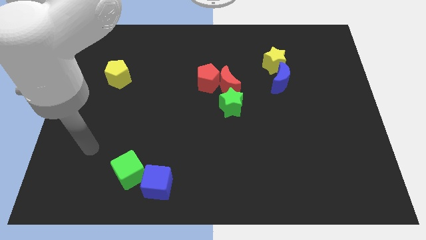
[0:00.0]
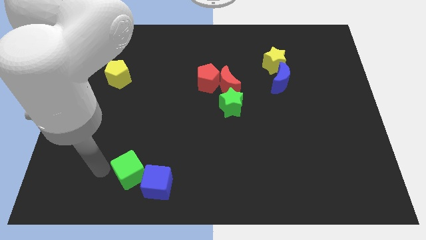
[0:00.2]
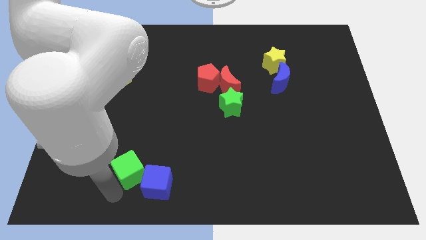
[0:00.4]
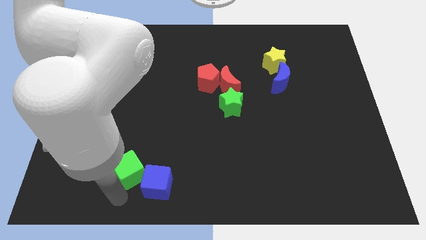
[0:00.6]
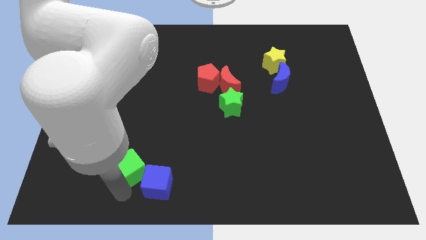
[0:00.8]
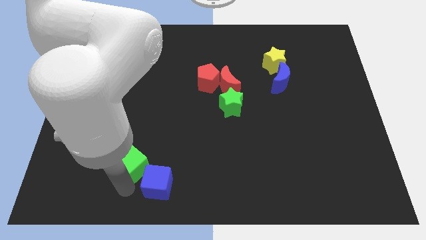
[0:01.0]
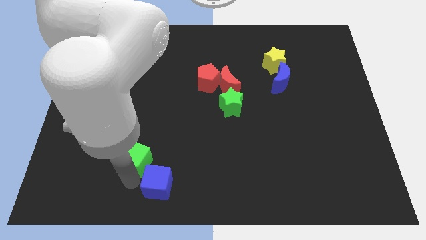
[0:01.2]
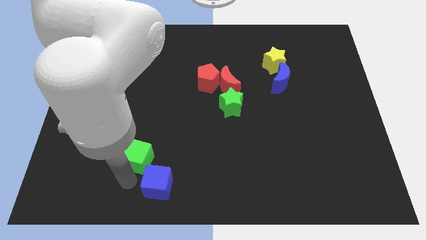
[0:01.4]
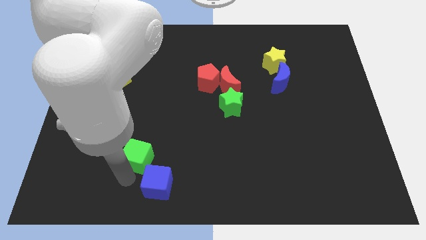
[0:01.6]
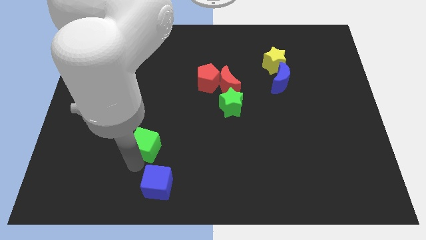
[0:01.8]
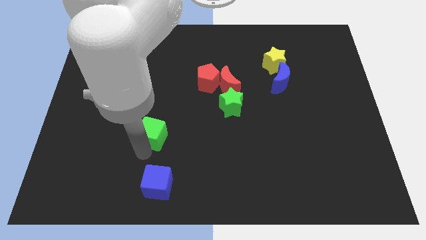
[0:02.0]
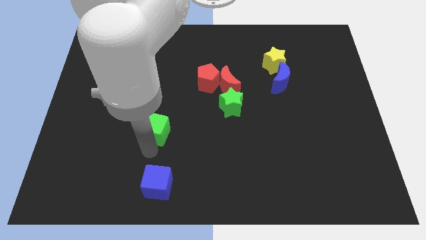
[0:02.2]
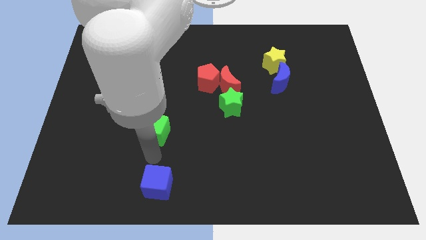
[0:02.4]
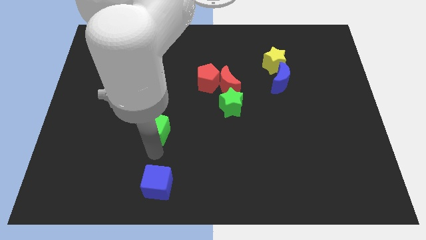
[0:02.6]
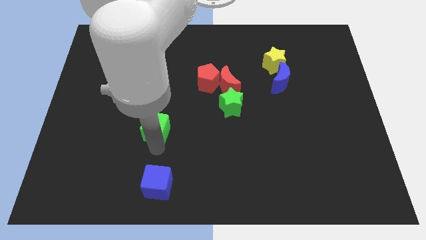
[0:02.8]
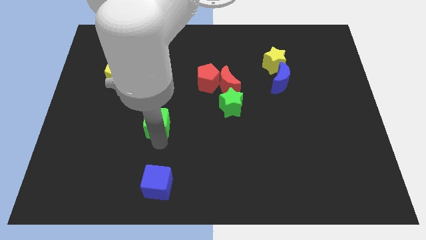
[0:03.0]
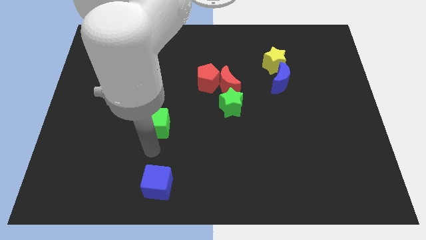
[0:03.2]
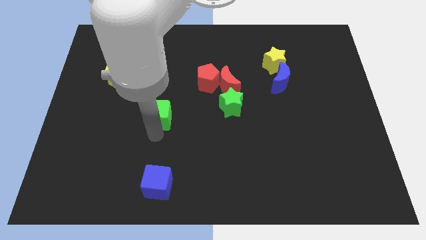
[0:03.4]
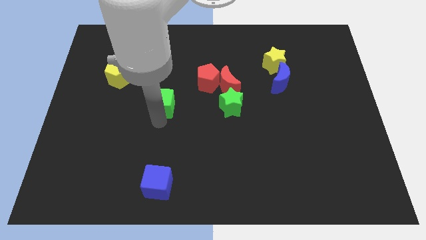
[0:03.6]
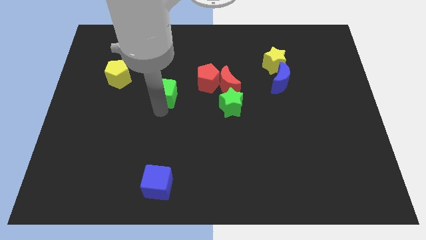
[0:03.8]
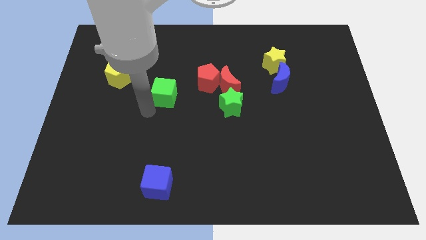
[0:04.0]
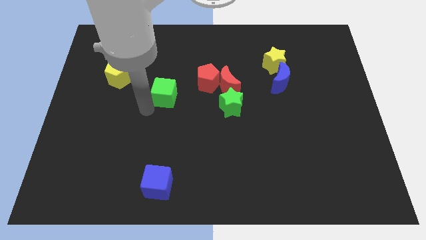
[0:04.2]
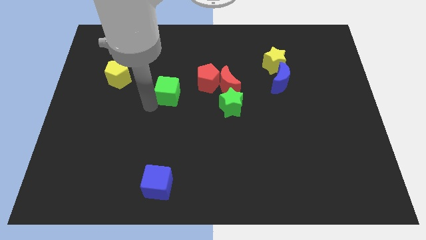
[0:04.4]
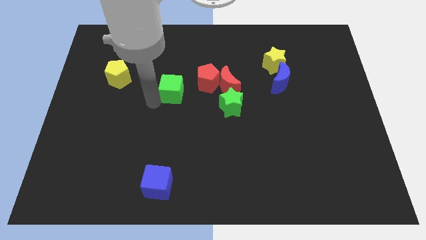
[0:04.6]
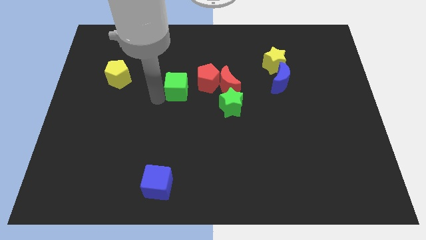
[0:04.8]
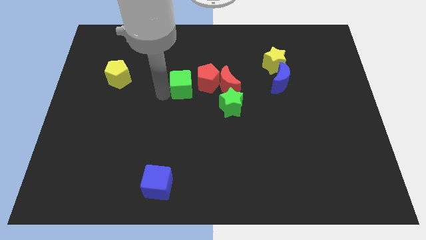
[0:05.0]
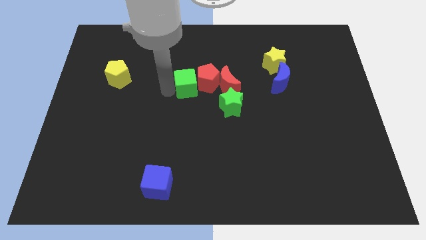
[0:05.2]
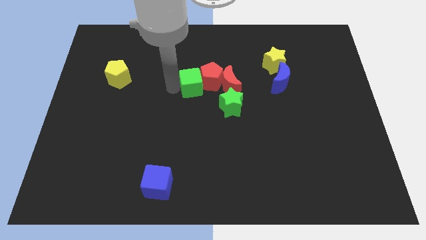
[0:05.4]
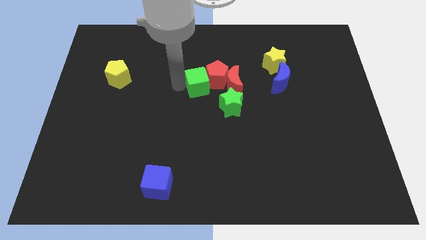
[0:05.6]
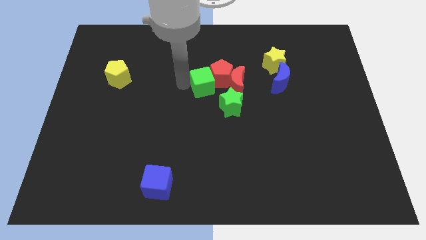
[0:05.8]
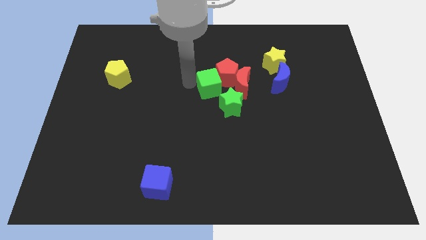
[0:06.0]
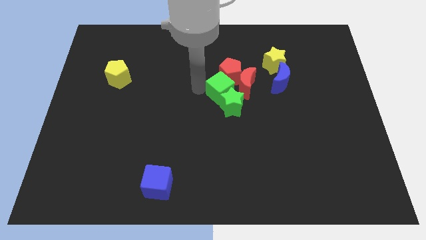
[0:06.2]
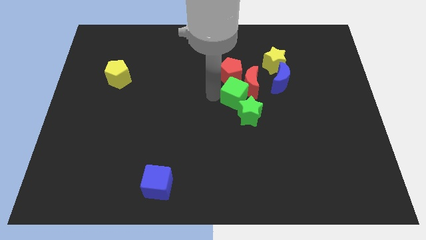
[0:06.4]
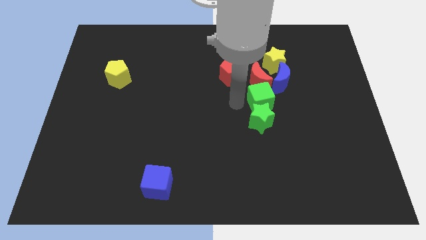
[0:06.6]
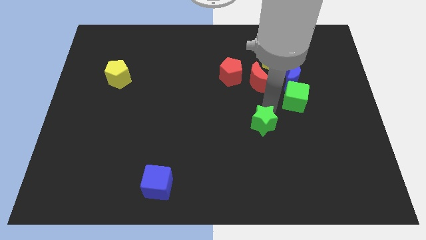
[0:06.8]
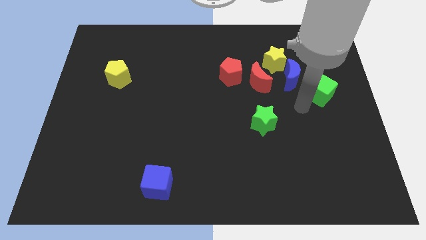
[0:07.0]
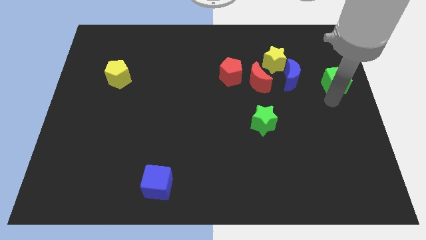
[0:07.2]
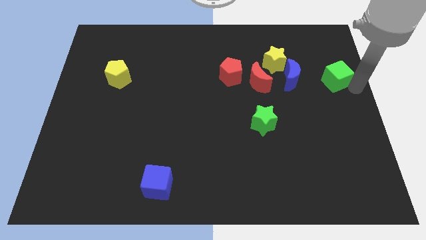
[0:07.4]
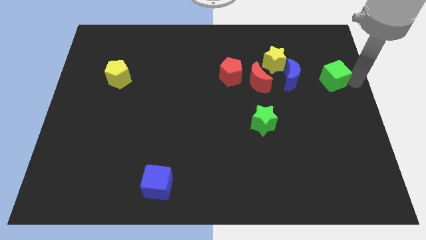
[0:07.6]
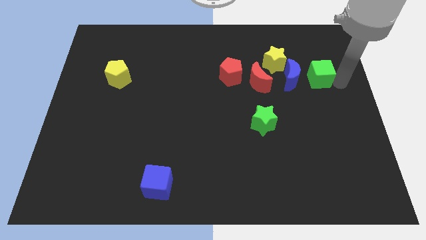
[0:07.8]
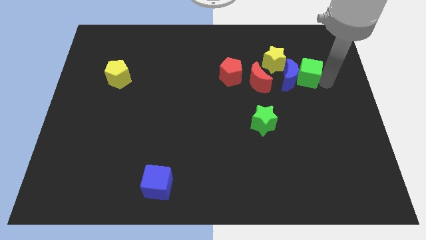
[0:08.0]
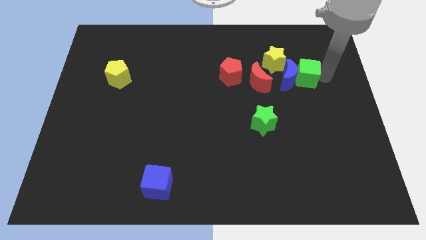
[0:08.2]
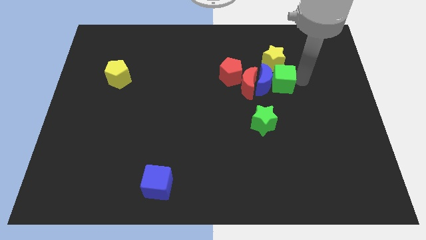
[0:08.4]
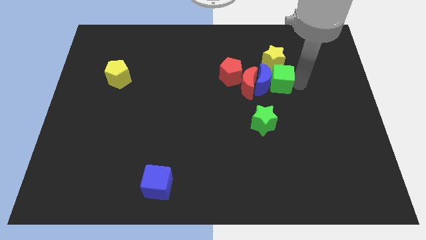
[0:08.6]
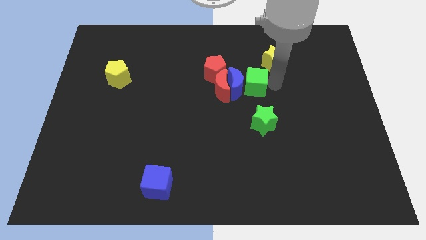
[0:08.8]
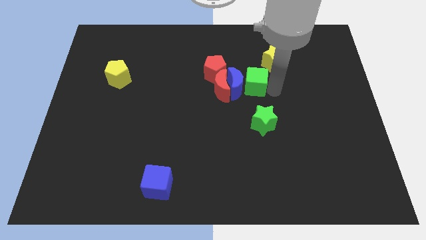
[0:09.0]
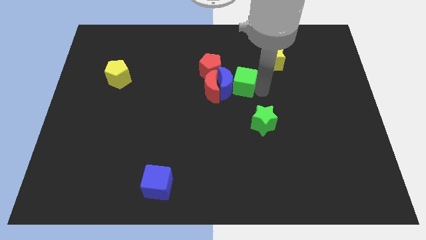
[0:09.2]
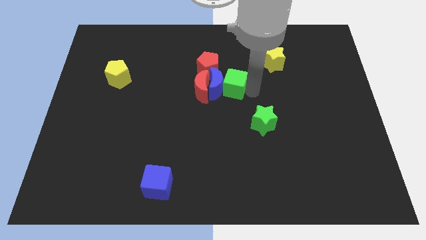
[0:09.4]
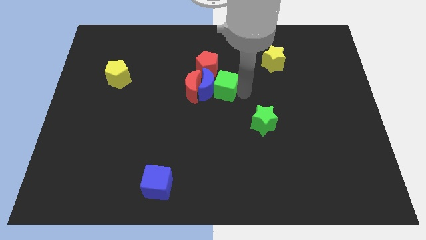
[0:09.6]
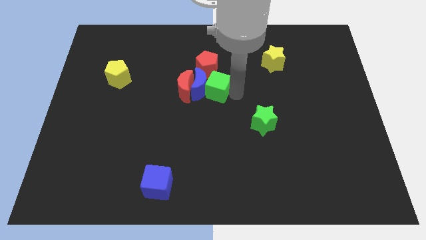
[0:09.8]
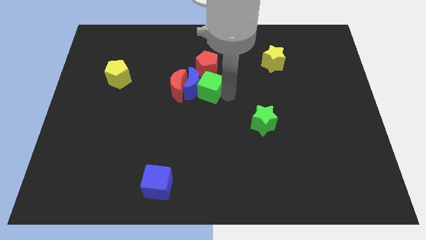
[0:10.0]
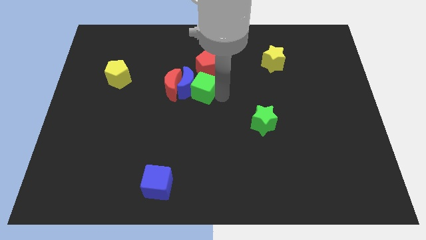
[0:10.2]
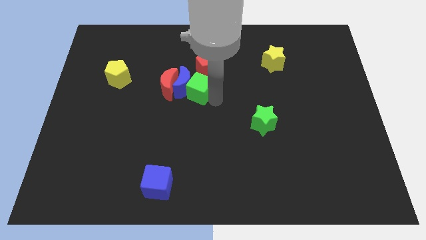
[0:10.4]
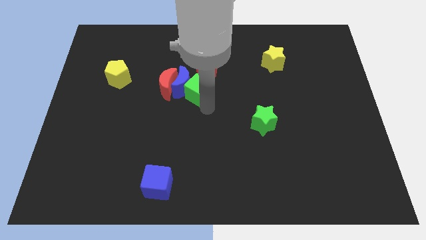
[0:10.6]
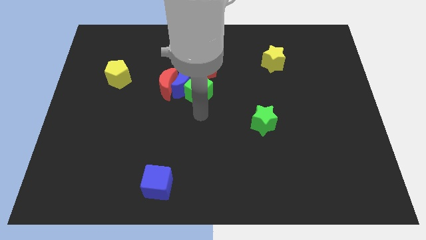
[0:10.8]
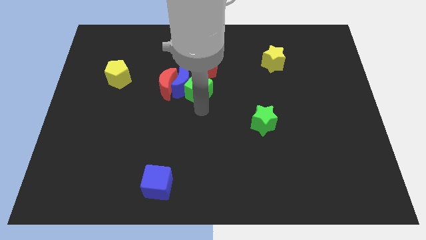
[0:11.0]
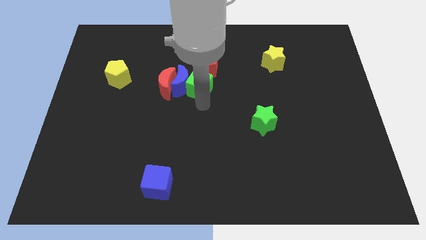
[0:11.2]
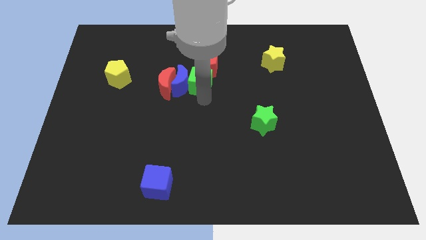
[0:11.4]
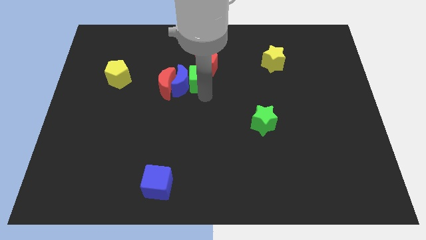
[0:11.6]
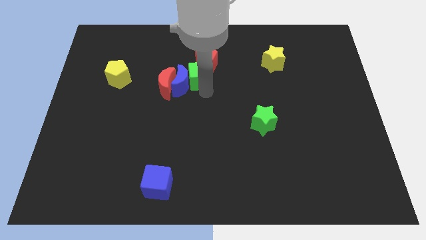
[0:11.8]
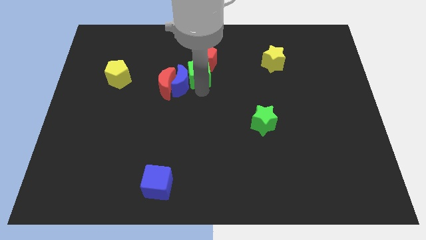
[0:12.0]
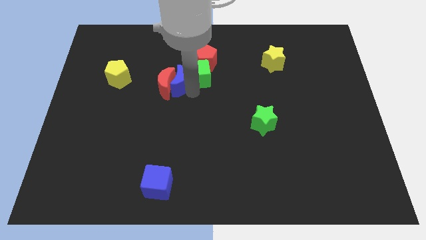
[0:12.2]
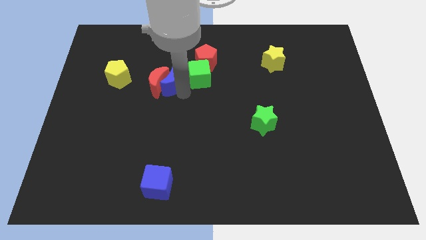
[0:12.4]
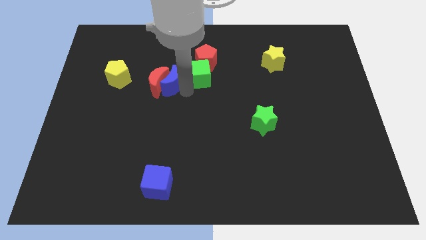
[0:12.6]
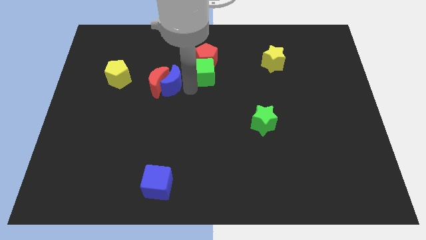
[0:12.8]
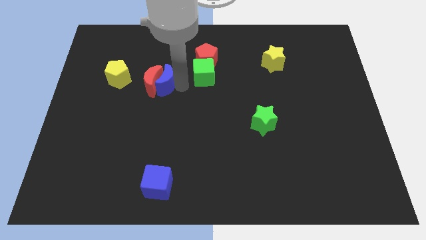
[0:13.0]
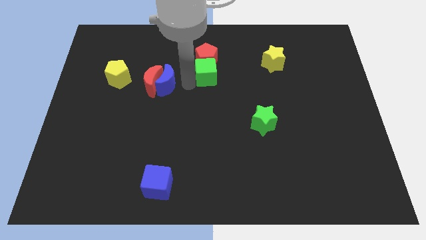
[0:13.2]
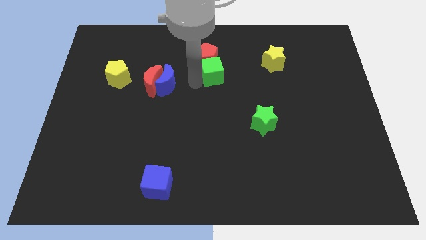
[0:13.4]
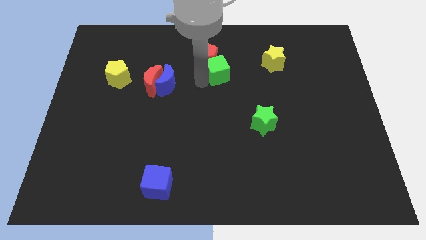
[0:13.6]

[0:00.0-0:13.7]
put the green cube to the left side of the yellow star
